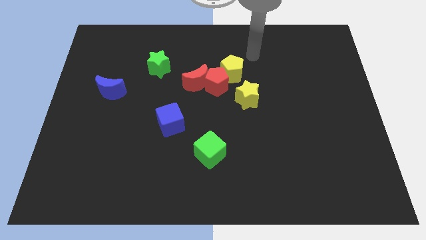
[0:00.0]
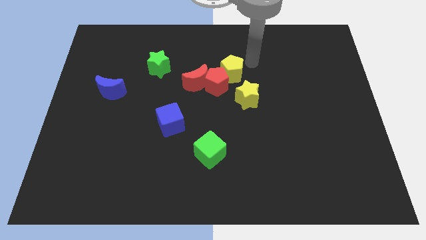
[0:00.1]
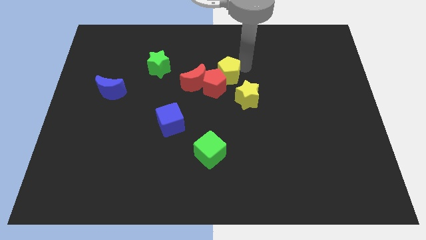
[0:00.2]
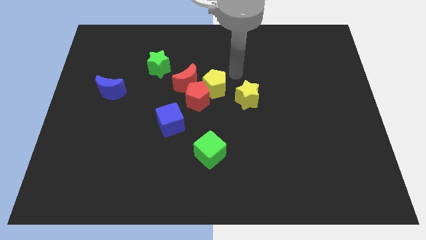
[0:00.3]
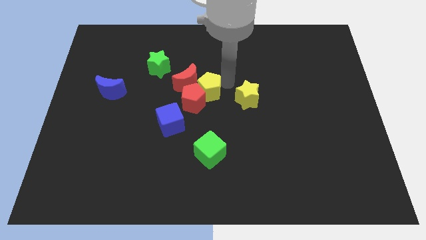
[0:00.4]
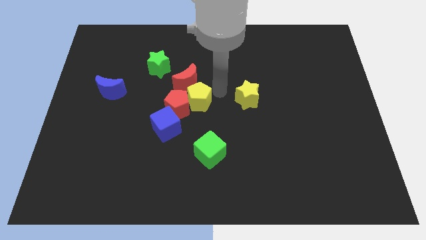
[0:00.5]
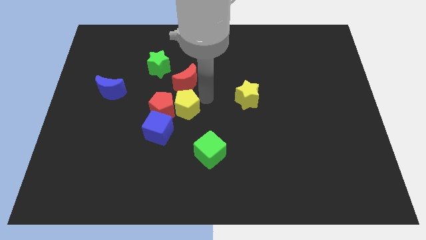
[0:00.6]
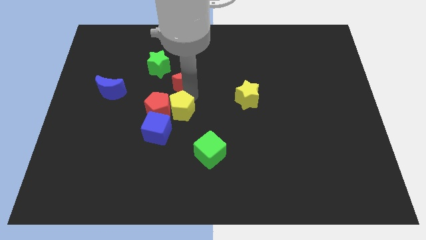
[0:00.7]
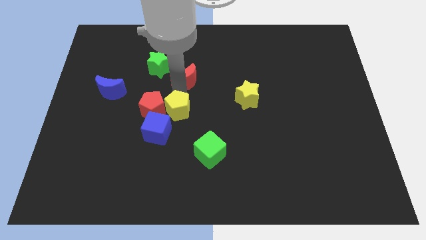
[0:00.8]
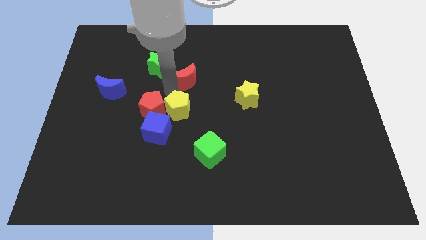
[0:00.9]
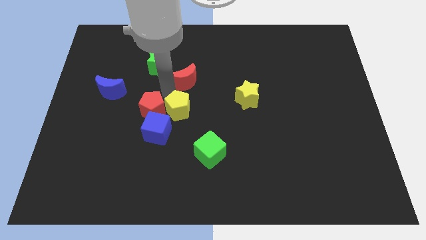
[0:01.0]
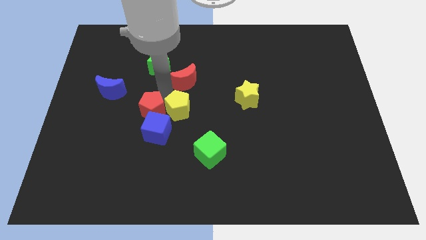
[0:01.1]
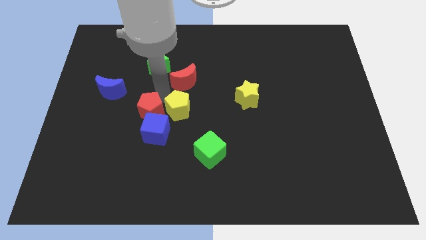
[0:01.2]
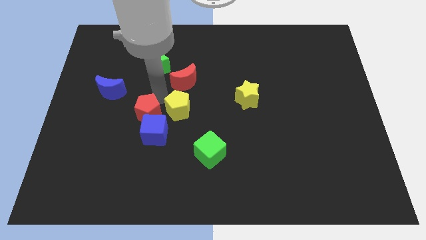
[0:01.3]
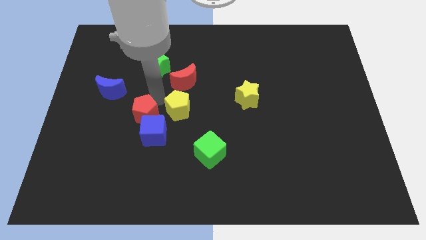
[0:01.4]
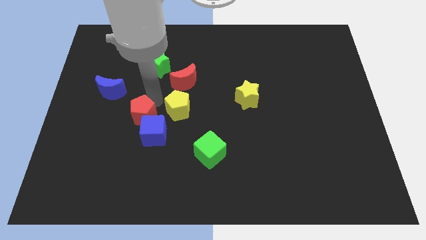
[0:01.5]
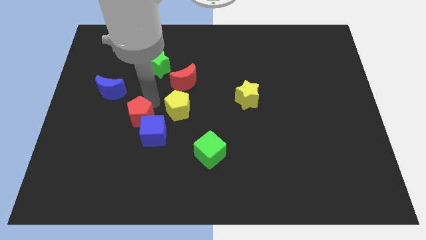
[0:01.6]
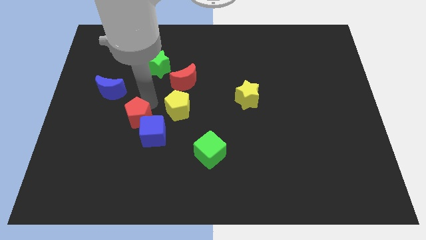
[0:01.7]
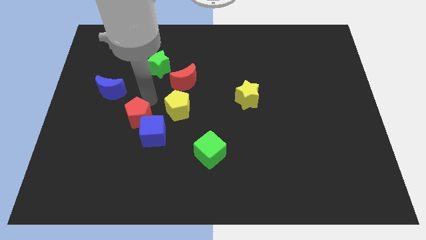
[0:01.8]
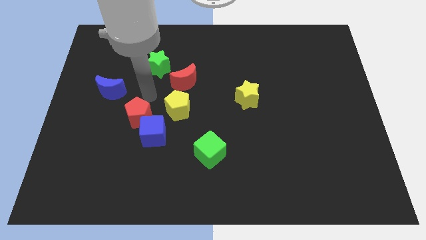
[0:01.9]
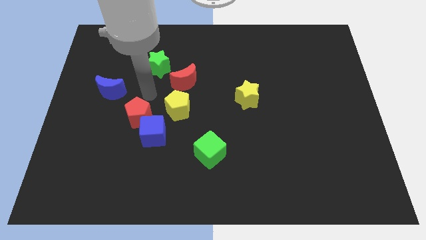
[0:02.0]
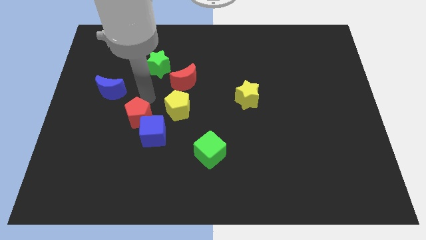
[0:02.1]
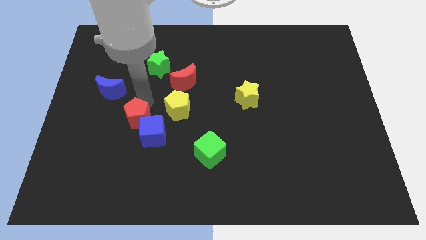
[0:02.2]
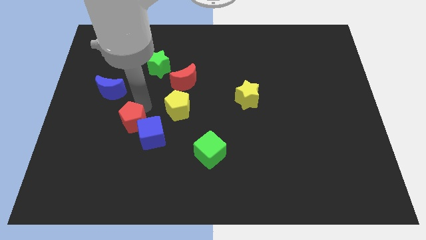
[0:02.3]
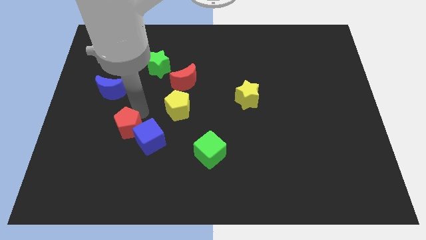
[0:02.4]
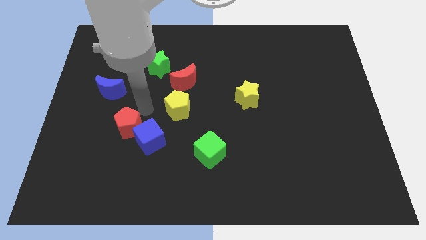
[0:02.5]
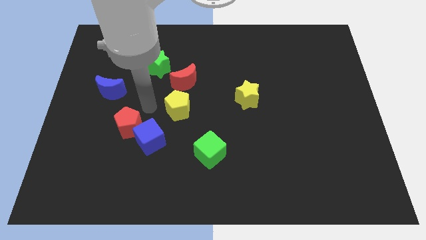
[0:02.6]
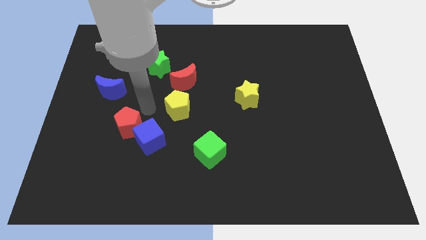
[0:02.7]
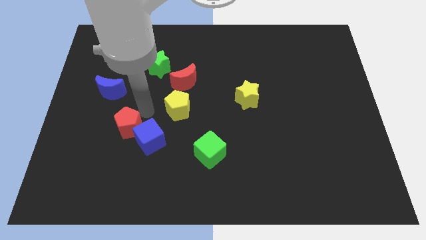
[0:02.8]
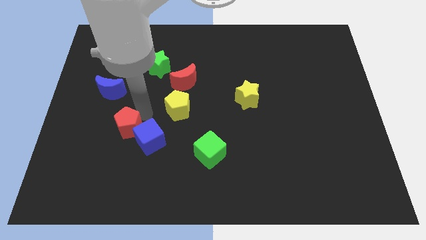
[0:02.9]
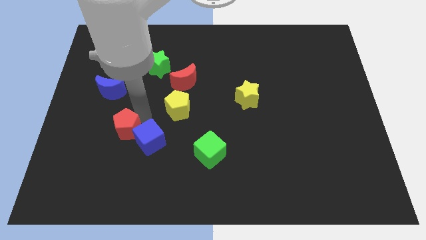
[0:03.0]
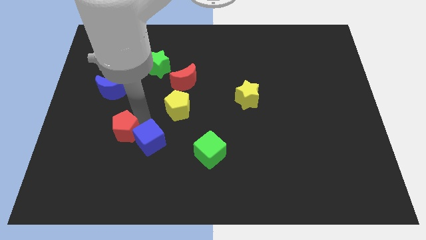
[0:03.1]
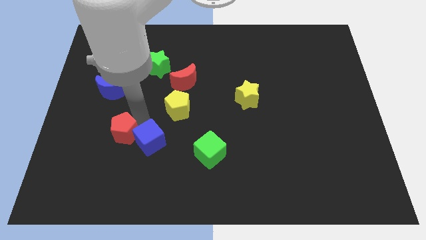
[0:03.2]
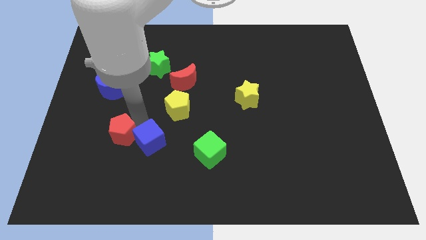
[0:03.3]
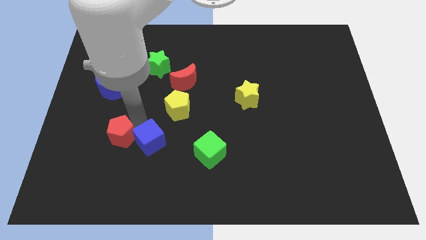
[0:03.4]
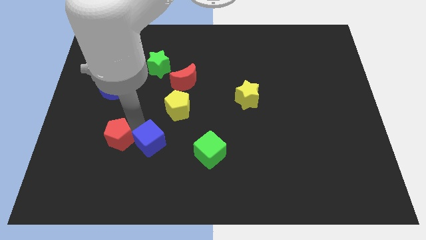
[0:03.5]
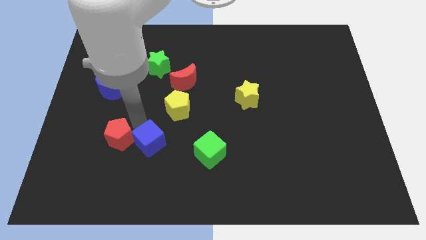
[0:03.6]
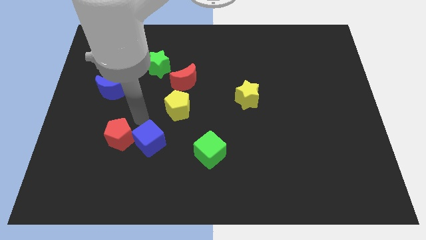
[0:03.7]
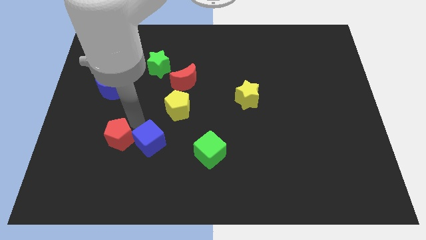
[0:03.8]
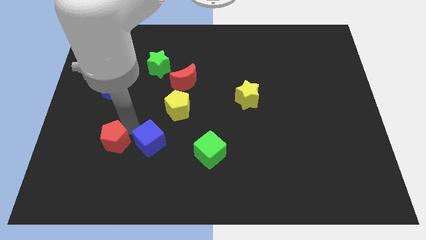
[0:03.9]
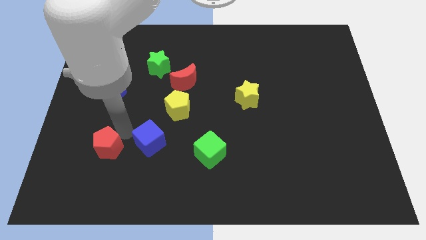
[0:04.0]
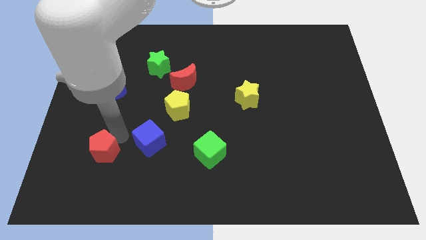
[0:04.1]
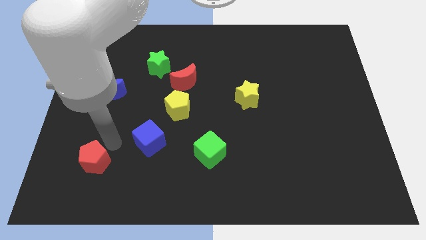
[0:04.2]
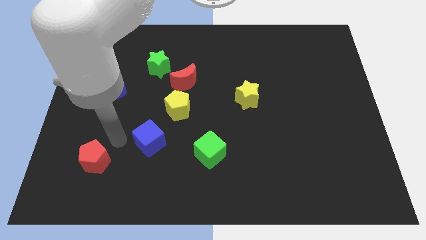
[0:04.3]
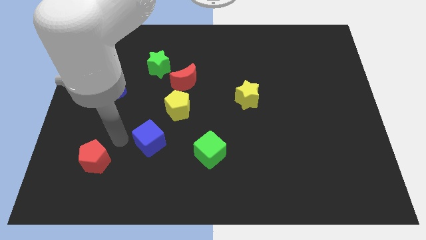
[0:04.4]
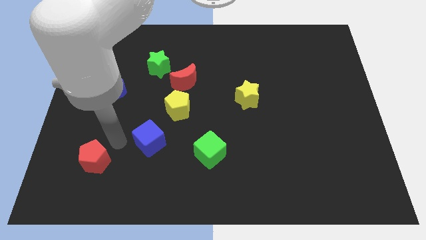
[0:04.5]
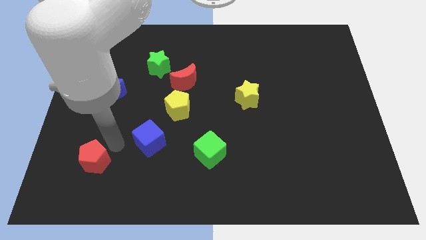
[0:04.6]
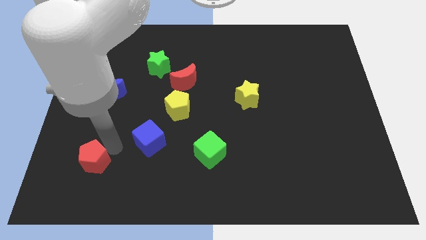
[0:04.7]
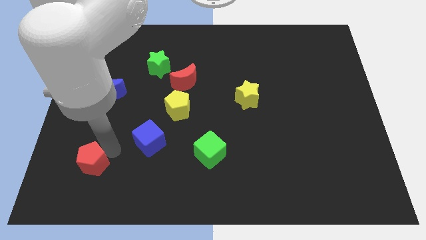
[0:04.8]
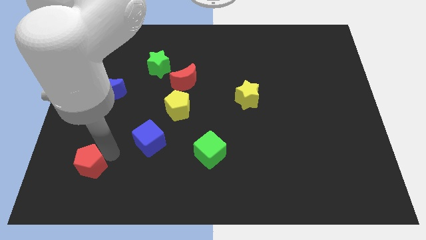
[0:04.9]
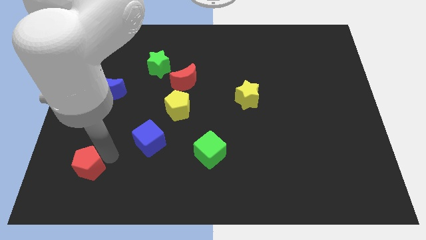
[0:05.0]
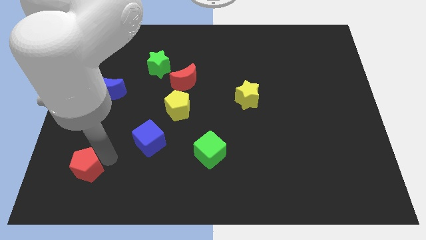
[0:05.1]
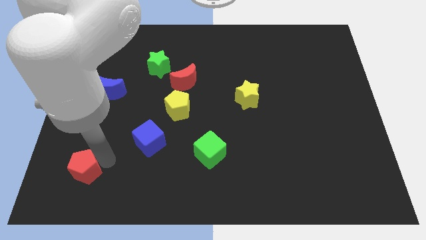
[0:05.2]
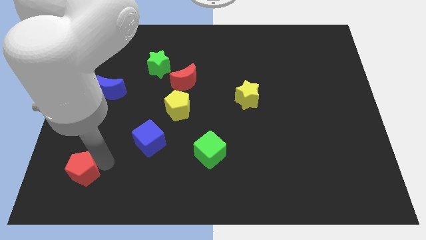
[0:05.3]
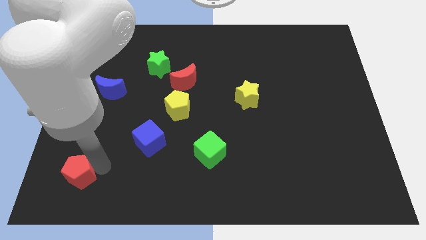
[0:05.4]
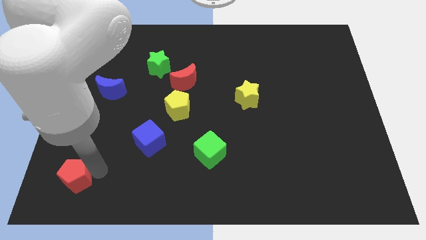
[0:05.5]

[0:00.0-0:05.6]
slide the red pentagon to the bottom left corner

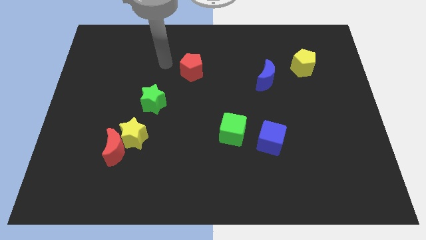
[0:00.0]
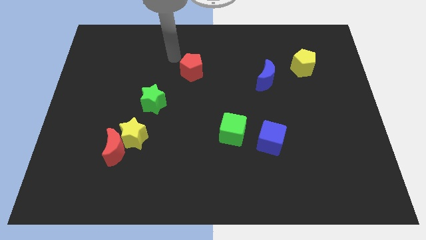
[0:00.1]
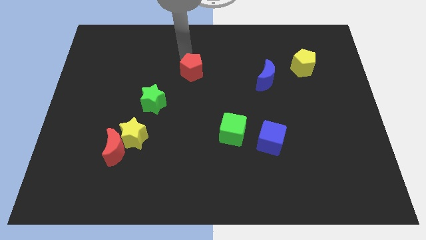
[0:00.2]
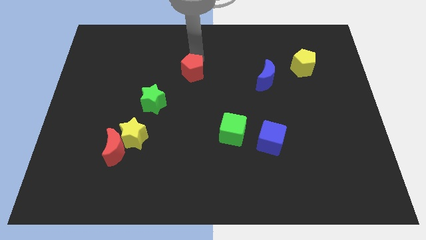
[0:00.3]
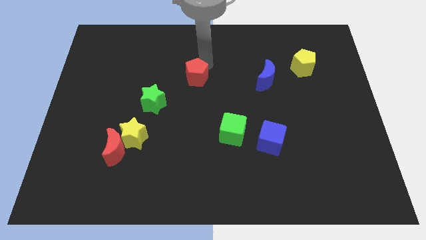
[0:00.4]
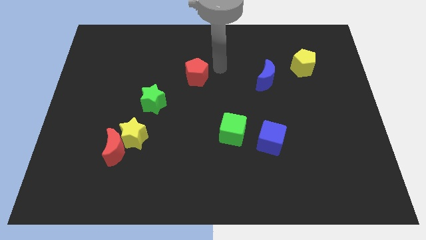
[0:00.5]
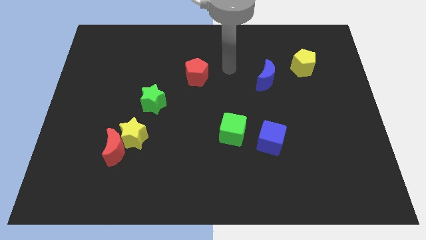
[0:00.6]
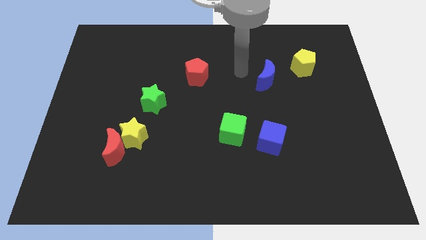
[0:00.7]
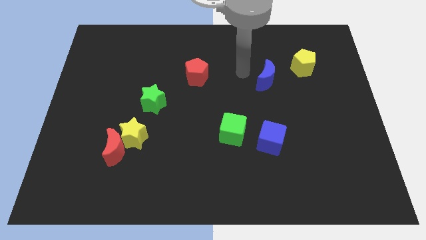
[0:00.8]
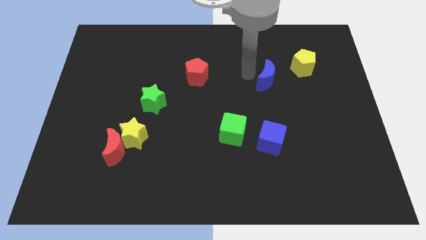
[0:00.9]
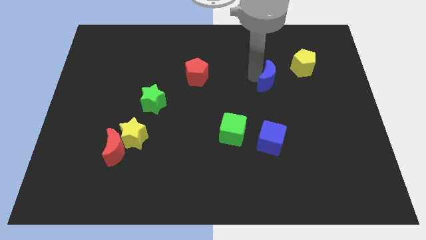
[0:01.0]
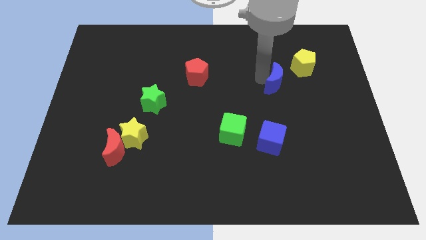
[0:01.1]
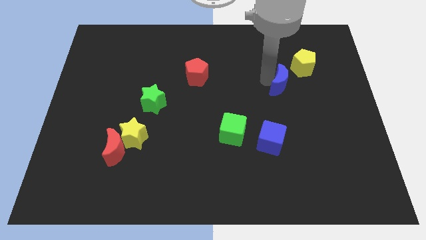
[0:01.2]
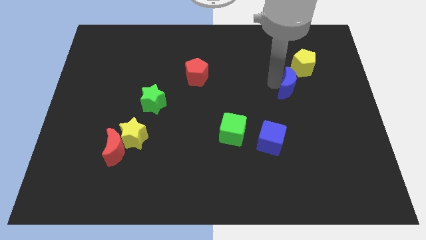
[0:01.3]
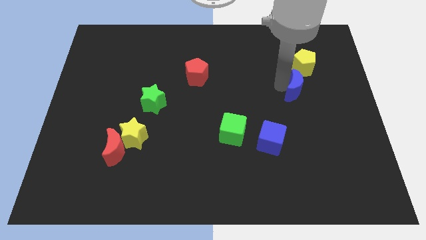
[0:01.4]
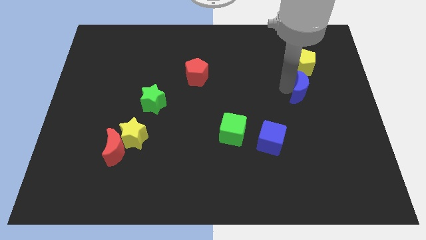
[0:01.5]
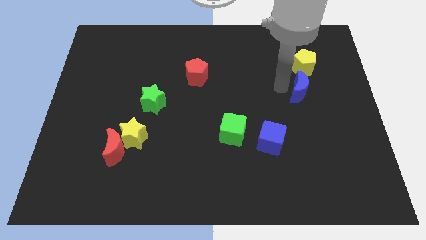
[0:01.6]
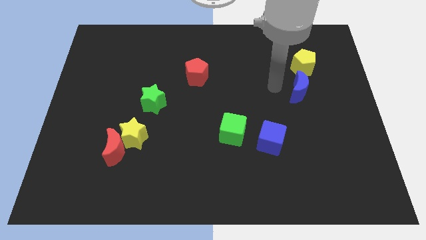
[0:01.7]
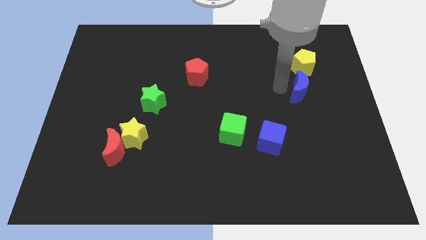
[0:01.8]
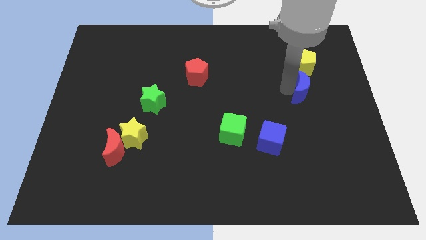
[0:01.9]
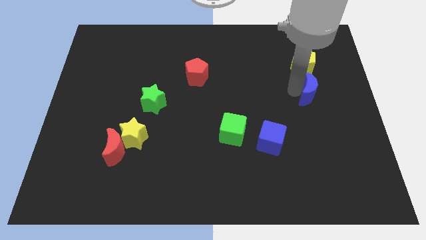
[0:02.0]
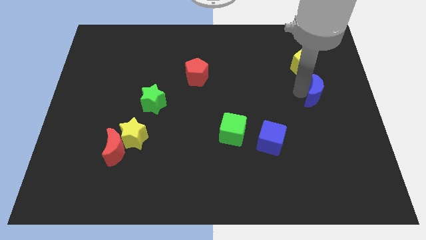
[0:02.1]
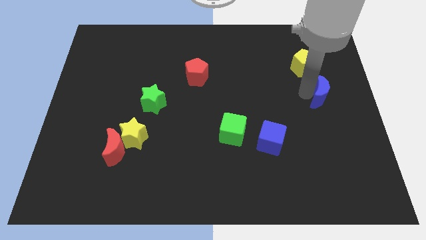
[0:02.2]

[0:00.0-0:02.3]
put the blue moon to the right side of the board
